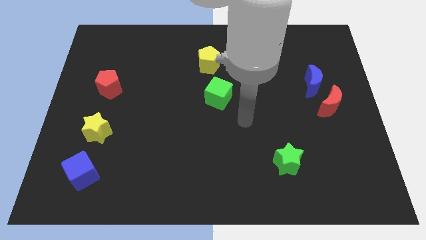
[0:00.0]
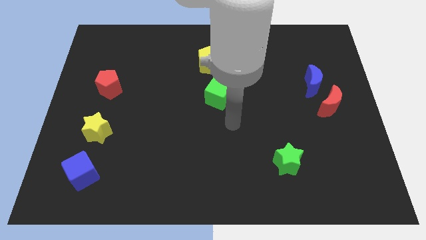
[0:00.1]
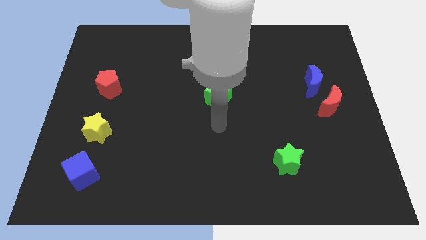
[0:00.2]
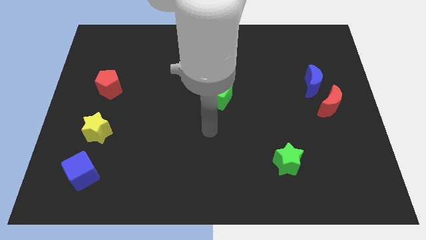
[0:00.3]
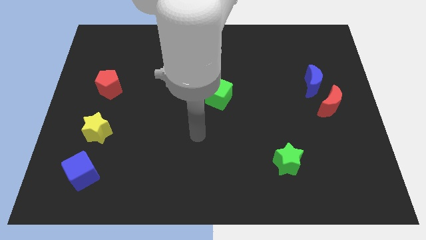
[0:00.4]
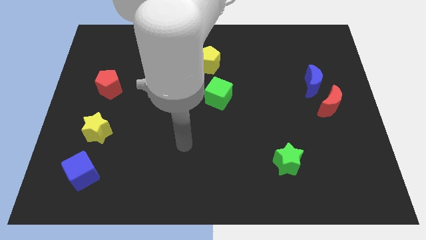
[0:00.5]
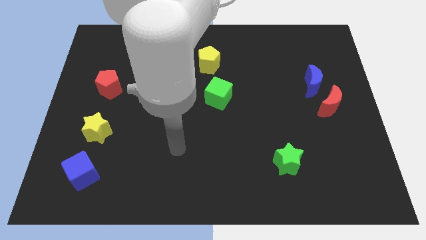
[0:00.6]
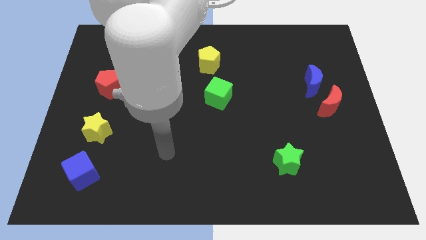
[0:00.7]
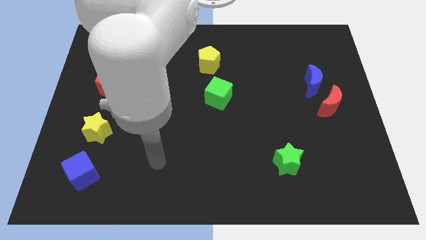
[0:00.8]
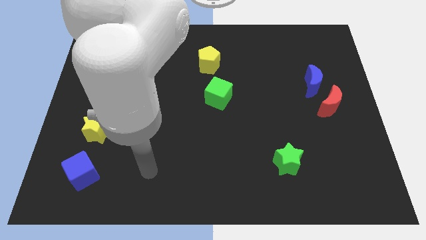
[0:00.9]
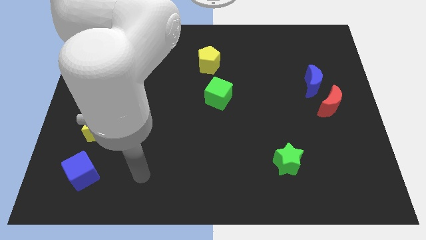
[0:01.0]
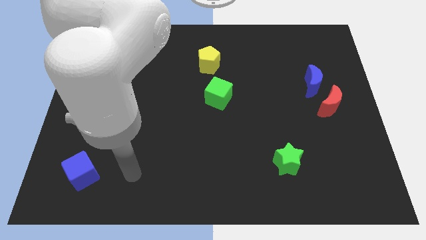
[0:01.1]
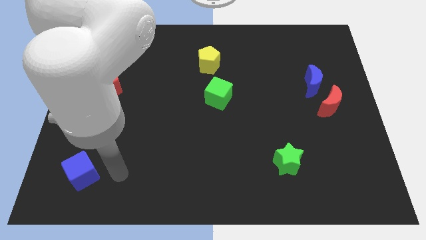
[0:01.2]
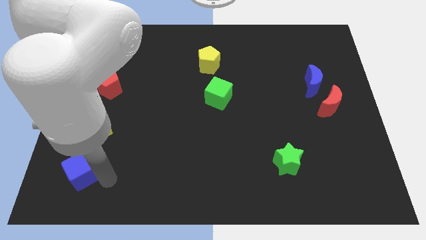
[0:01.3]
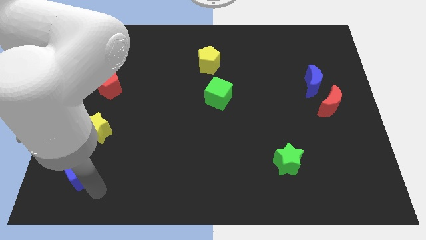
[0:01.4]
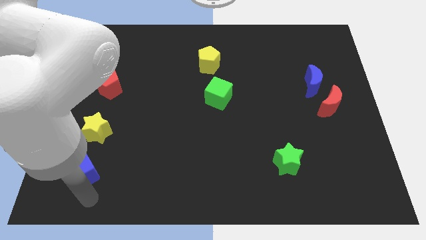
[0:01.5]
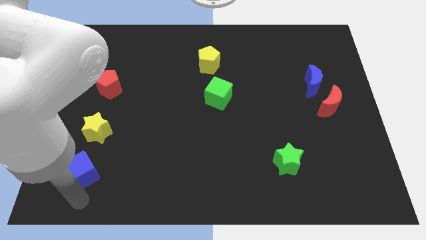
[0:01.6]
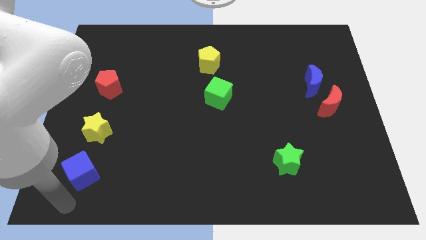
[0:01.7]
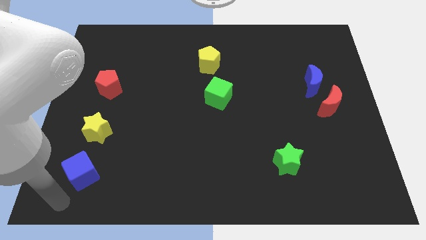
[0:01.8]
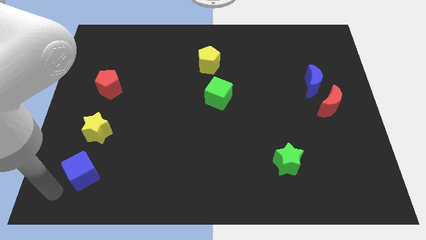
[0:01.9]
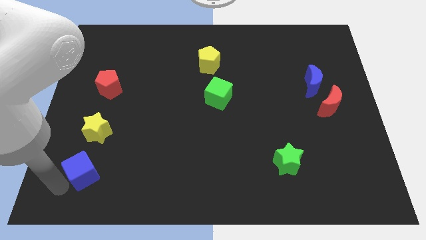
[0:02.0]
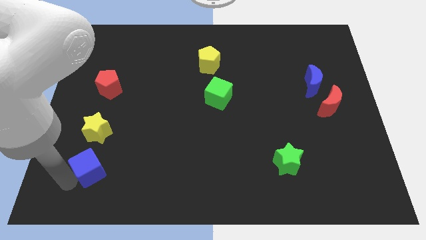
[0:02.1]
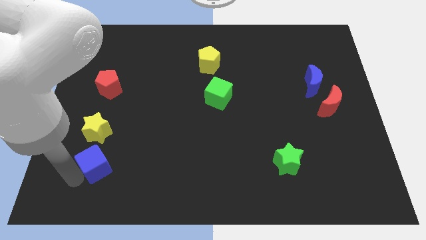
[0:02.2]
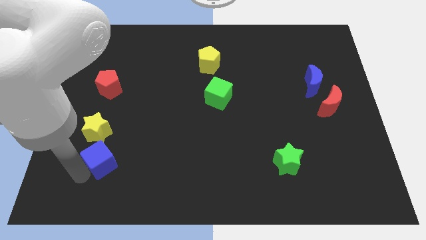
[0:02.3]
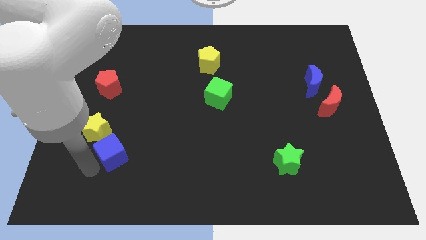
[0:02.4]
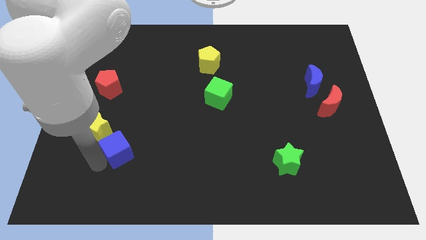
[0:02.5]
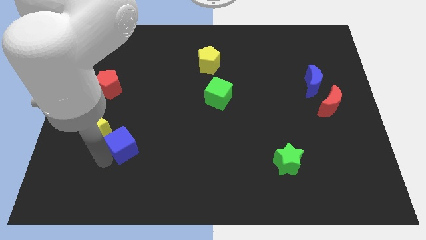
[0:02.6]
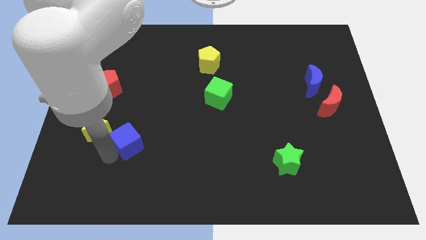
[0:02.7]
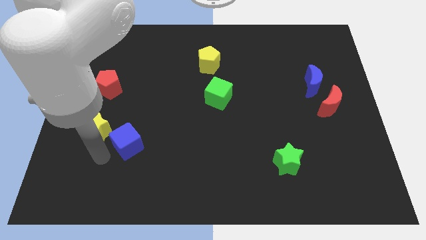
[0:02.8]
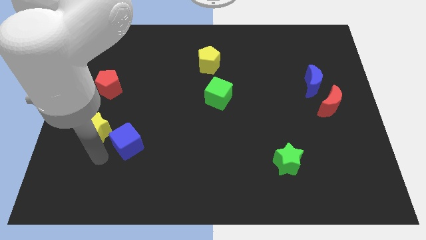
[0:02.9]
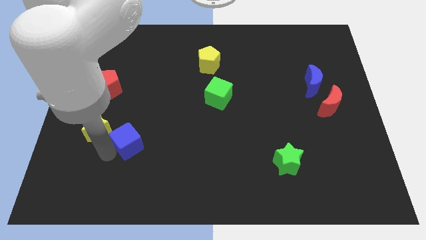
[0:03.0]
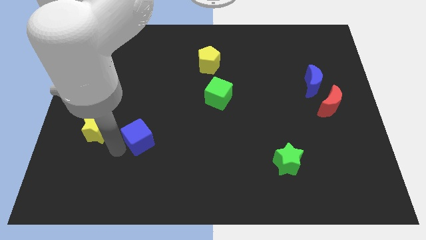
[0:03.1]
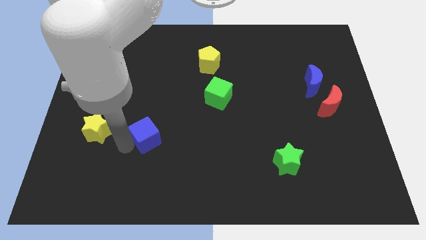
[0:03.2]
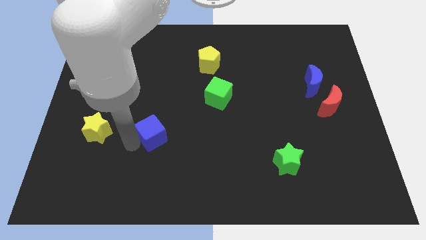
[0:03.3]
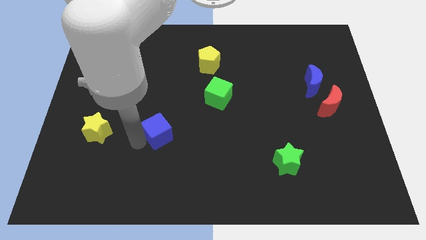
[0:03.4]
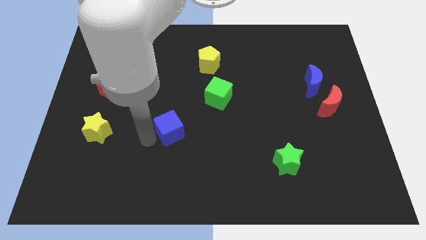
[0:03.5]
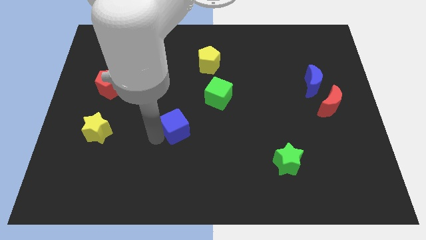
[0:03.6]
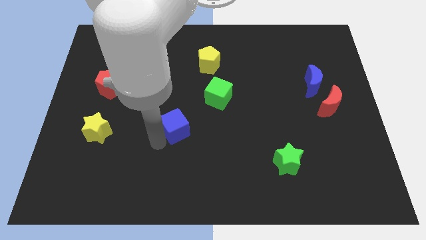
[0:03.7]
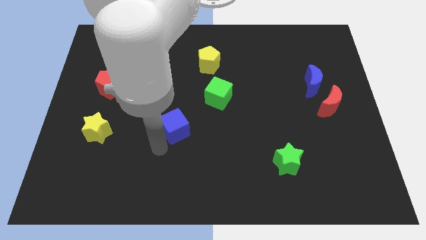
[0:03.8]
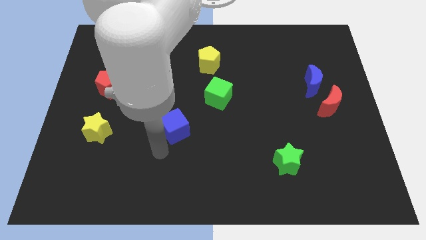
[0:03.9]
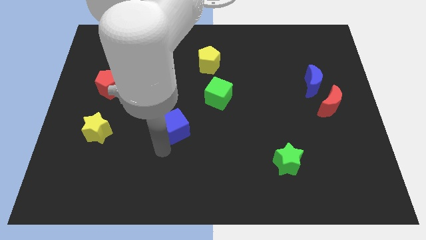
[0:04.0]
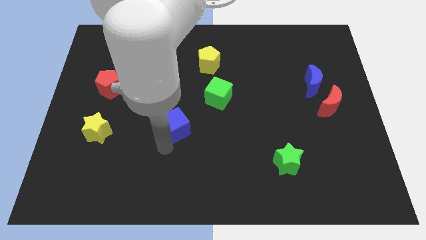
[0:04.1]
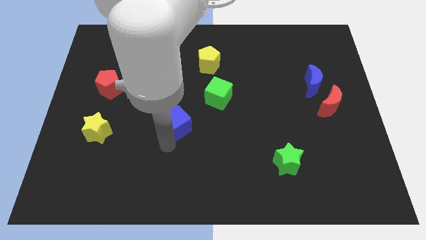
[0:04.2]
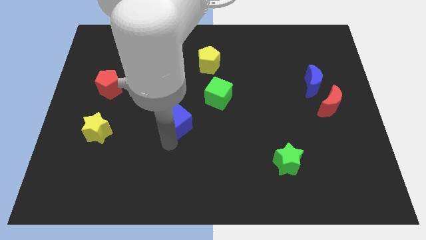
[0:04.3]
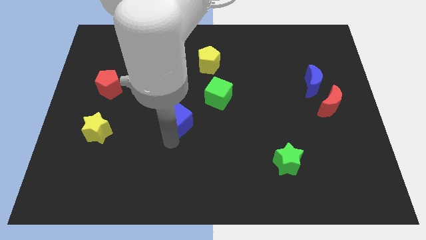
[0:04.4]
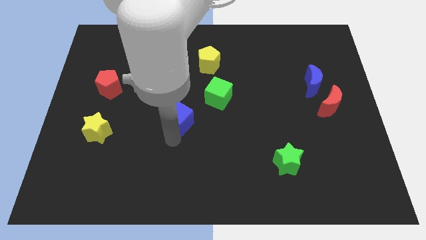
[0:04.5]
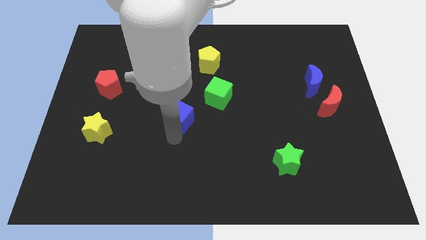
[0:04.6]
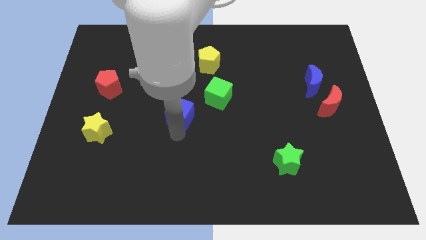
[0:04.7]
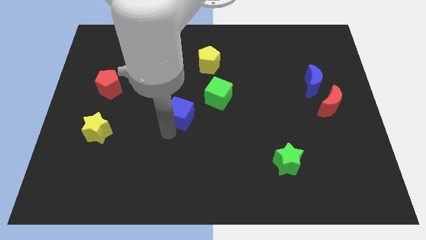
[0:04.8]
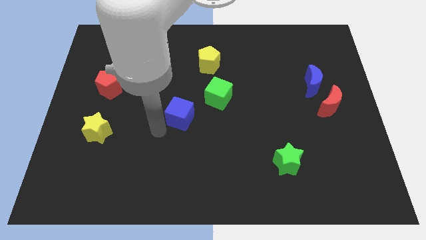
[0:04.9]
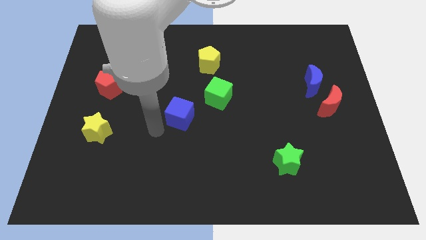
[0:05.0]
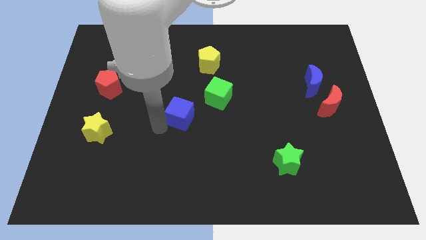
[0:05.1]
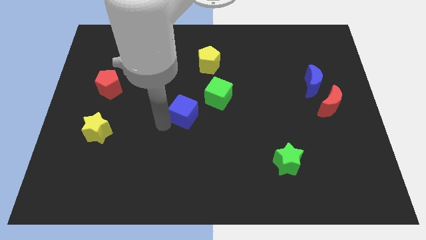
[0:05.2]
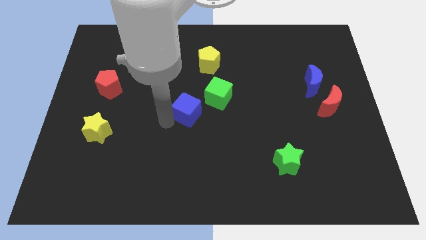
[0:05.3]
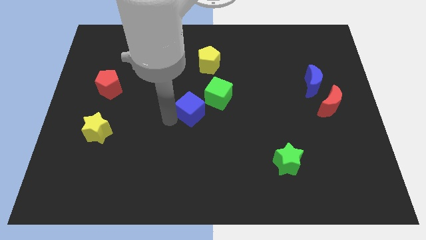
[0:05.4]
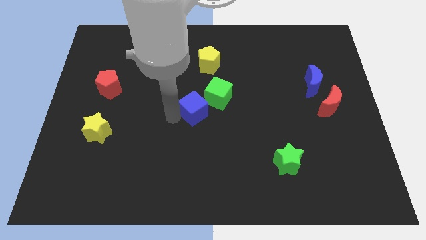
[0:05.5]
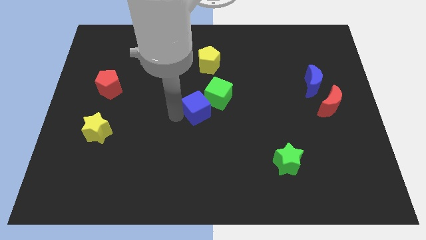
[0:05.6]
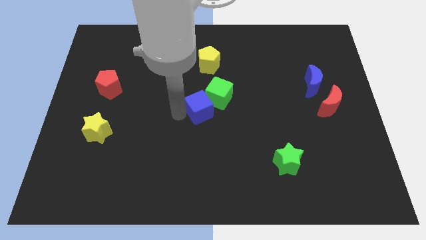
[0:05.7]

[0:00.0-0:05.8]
push the blue cube towards the green cube
